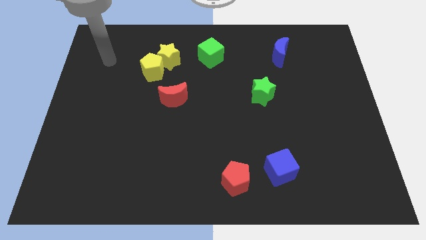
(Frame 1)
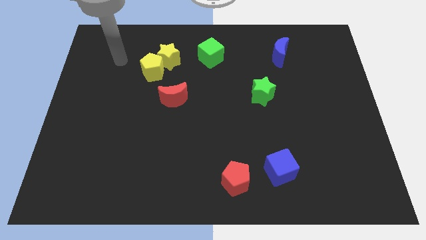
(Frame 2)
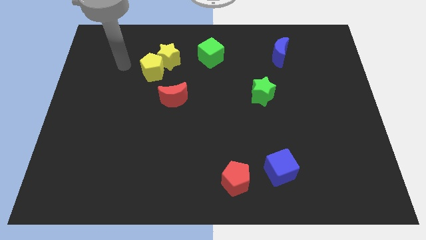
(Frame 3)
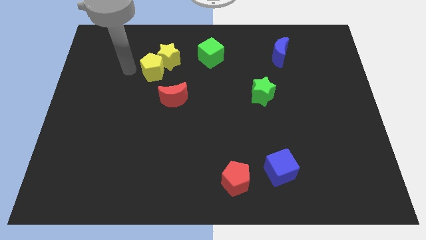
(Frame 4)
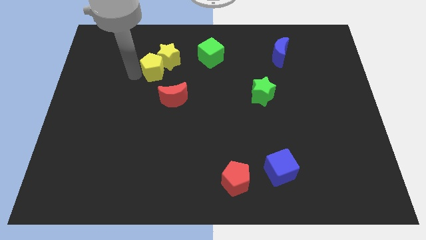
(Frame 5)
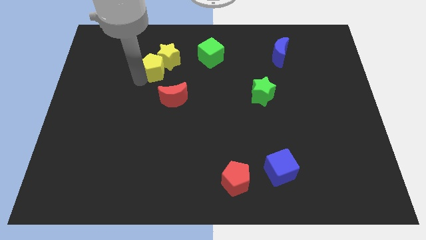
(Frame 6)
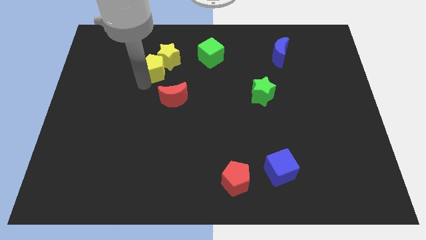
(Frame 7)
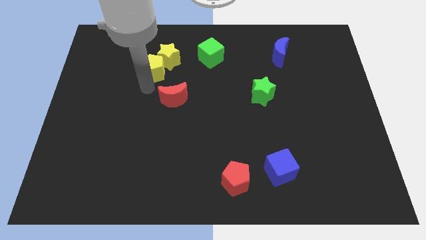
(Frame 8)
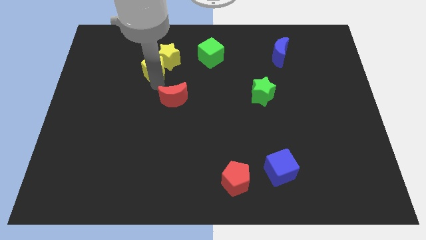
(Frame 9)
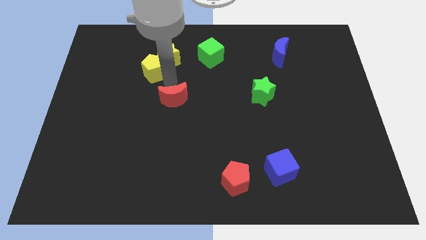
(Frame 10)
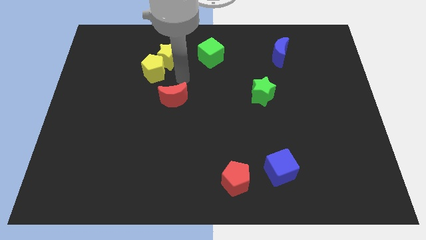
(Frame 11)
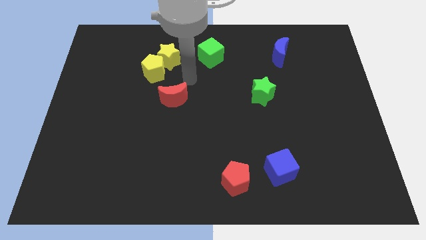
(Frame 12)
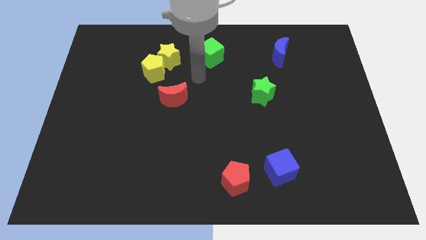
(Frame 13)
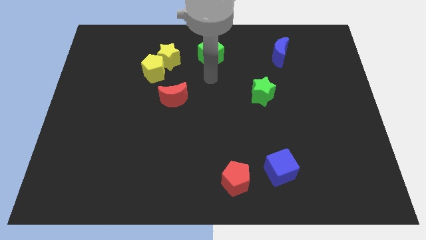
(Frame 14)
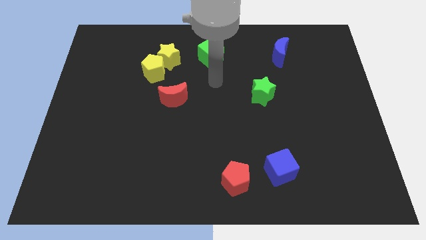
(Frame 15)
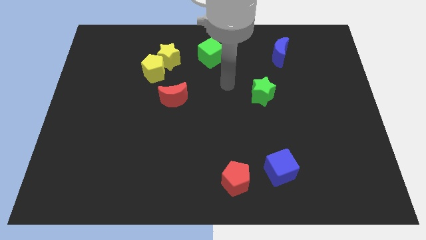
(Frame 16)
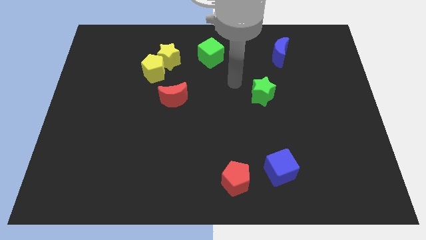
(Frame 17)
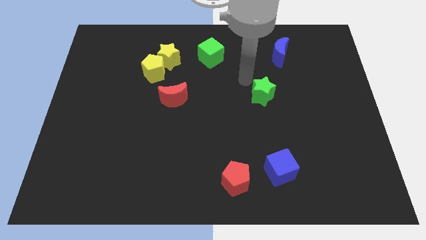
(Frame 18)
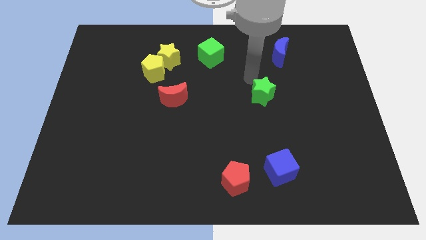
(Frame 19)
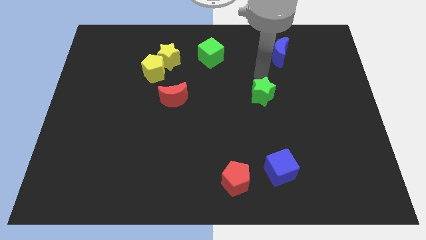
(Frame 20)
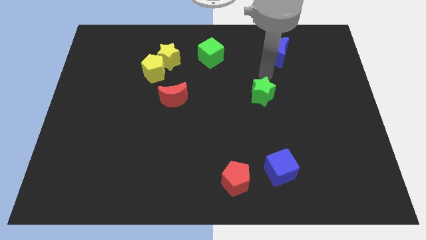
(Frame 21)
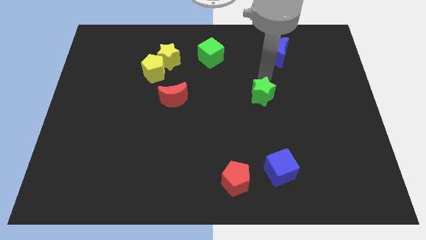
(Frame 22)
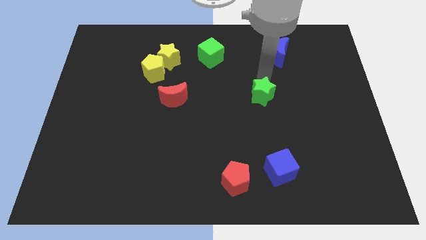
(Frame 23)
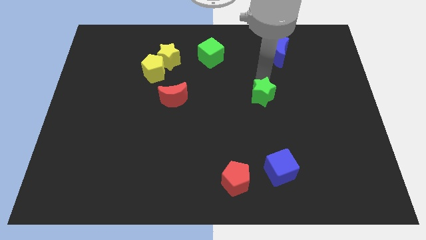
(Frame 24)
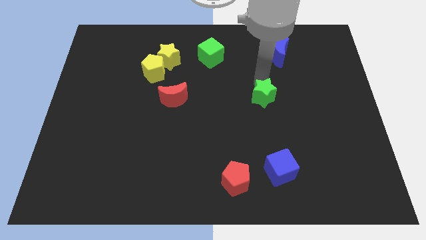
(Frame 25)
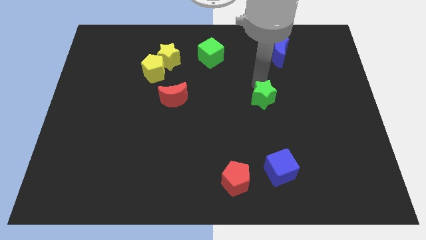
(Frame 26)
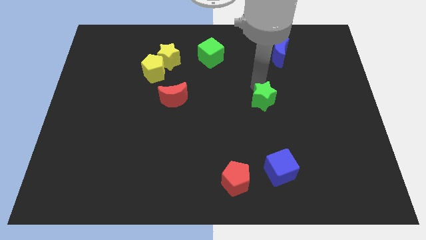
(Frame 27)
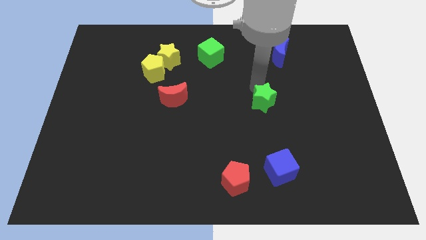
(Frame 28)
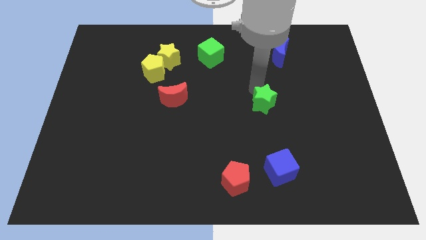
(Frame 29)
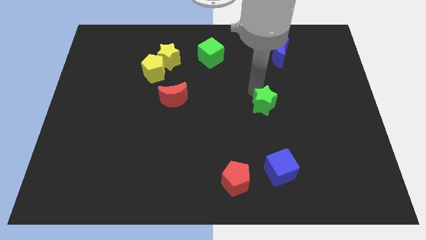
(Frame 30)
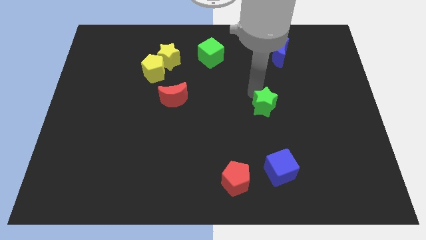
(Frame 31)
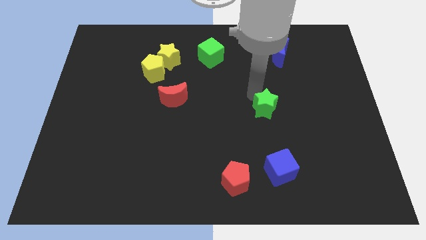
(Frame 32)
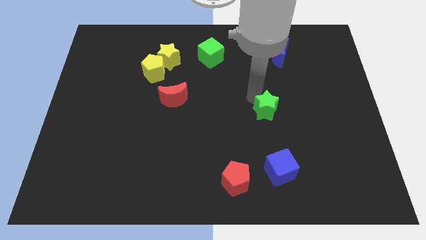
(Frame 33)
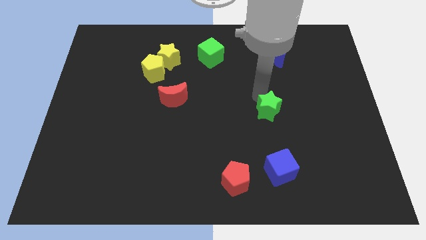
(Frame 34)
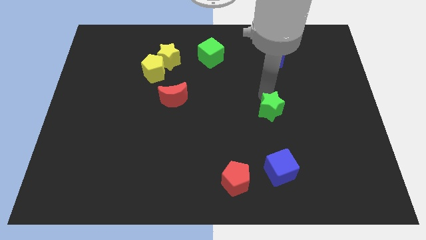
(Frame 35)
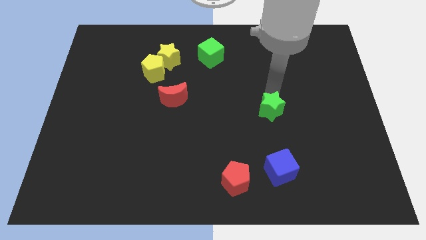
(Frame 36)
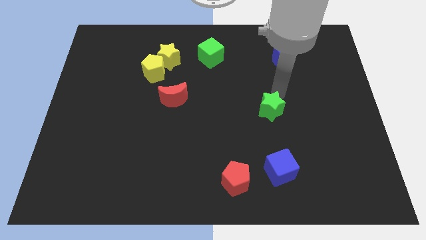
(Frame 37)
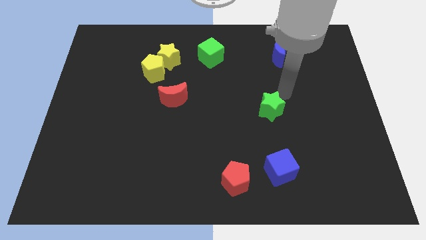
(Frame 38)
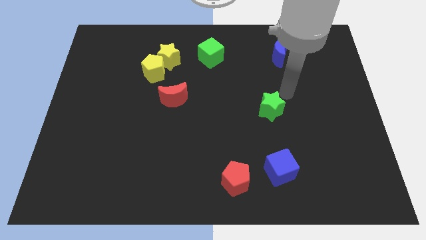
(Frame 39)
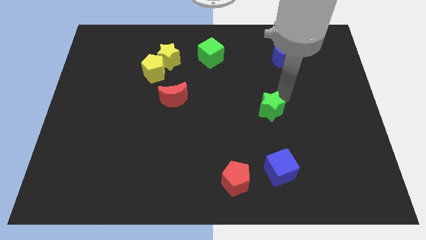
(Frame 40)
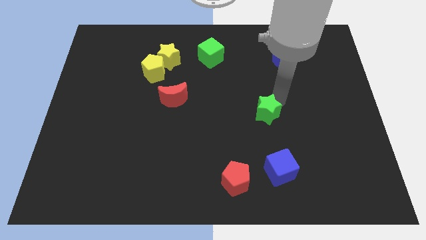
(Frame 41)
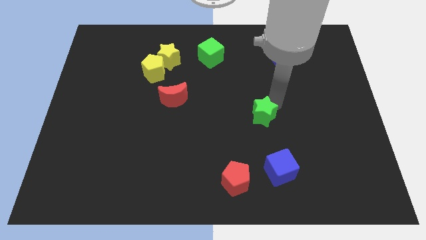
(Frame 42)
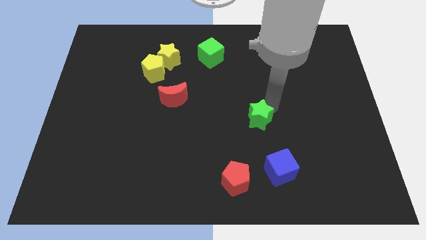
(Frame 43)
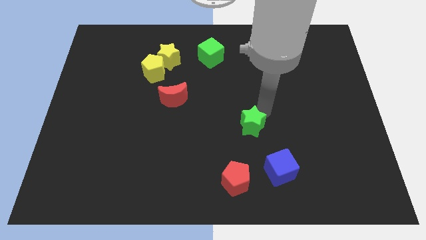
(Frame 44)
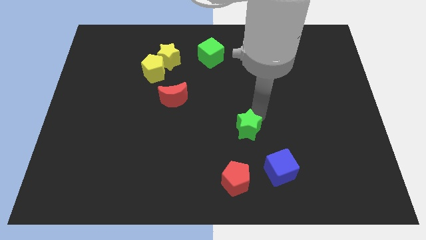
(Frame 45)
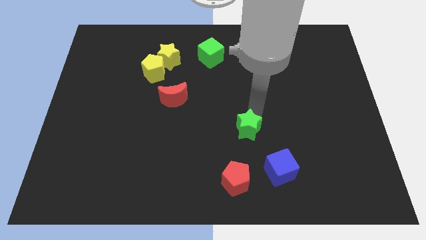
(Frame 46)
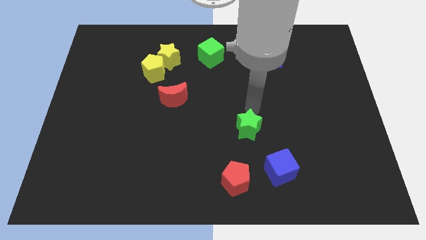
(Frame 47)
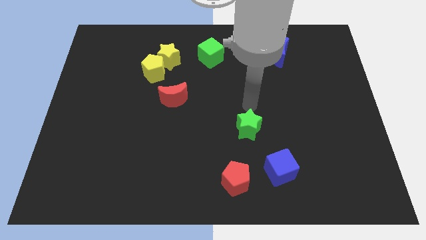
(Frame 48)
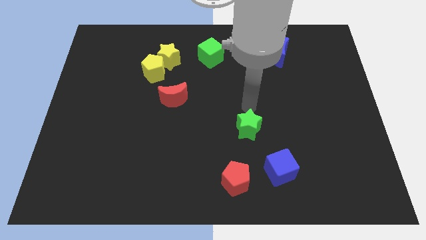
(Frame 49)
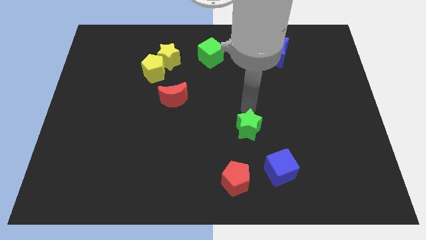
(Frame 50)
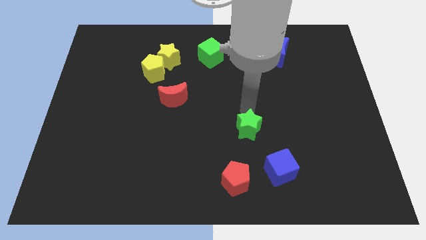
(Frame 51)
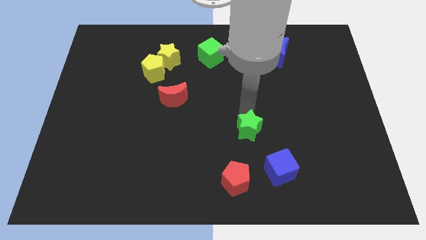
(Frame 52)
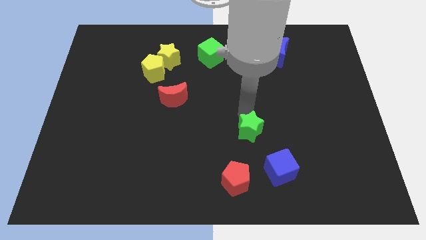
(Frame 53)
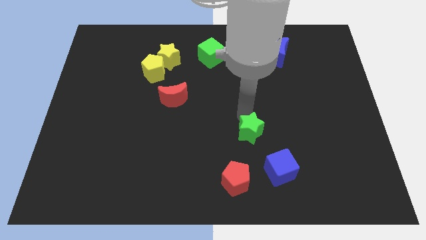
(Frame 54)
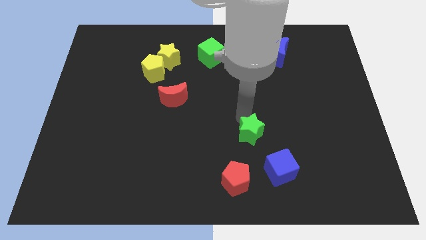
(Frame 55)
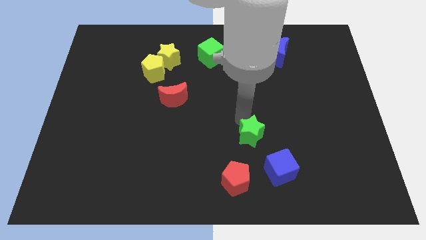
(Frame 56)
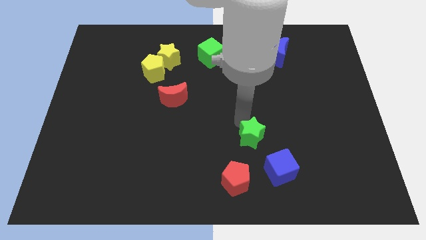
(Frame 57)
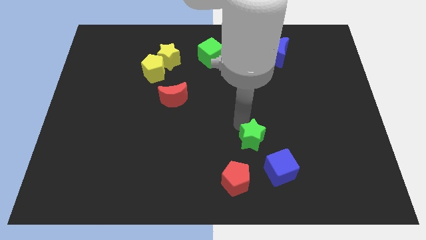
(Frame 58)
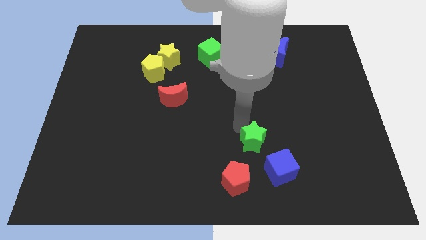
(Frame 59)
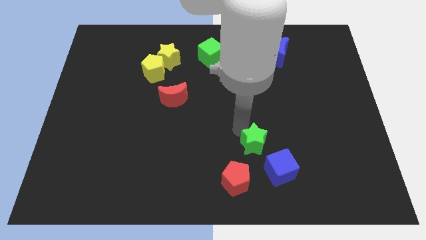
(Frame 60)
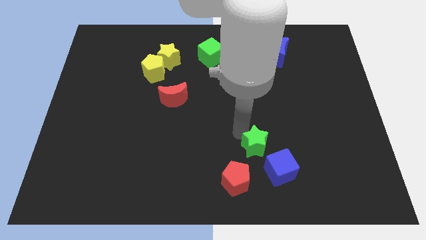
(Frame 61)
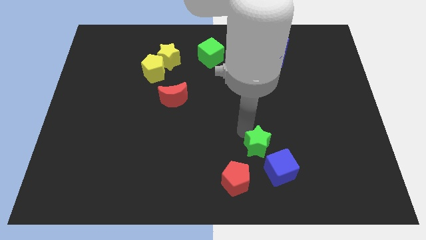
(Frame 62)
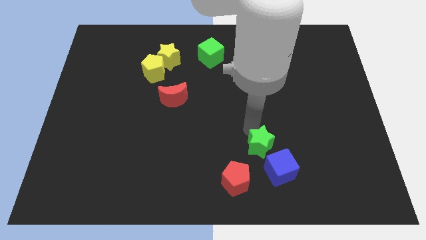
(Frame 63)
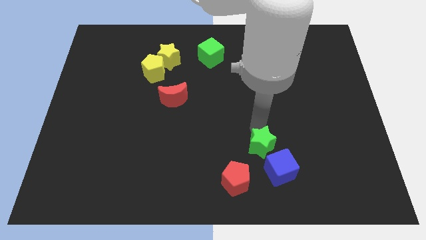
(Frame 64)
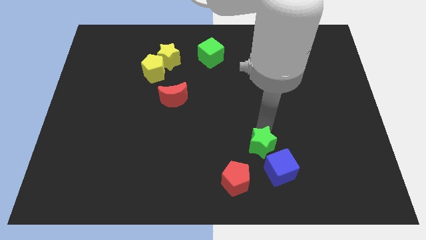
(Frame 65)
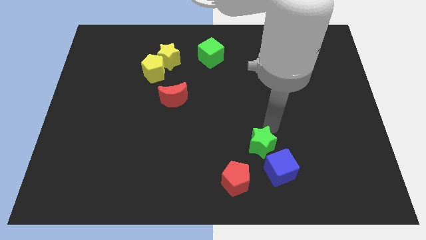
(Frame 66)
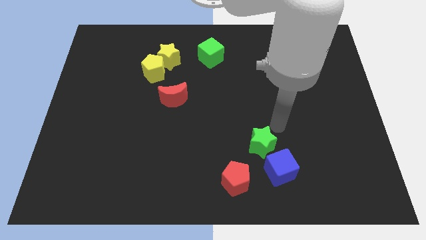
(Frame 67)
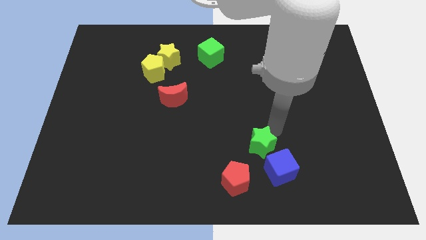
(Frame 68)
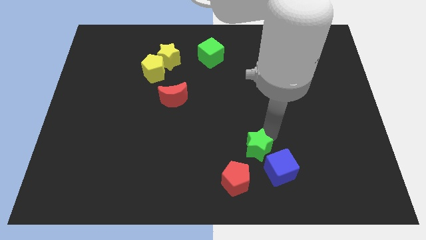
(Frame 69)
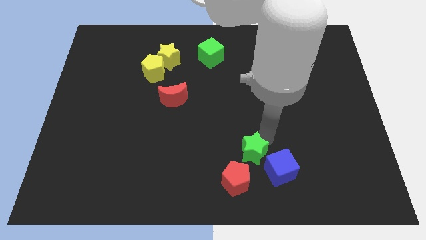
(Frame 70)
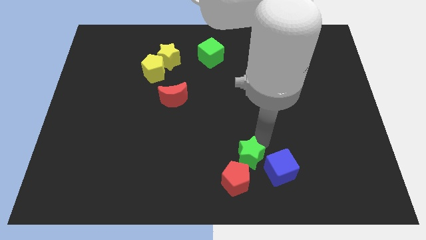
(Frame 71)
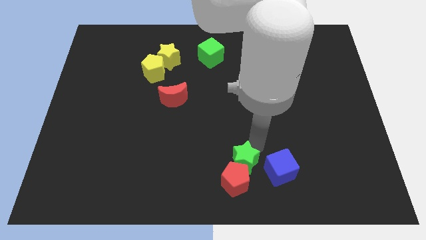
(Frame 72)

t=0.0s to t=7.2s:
slide the green star close to the red pentagon
